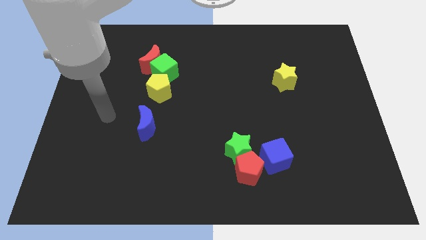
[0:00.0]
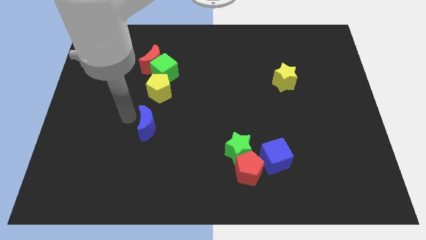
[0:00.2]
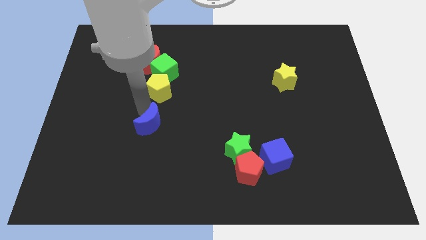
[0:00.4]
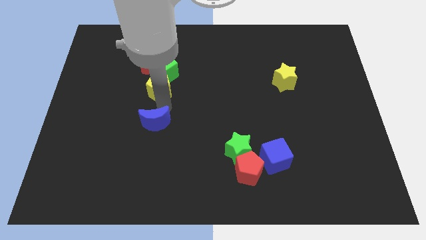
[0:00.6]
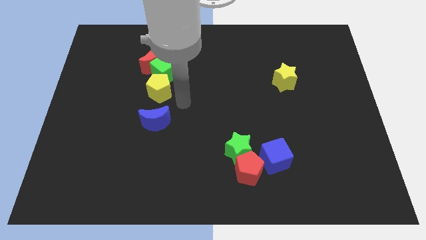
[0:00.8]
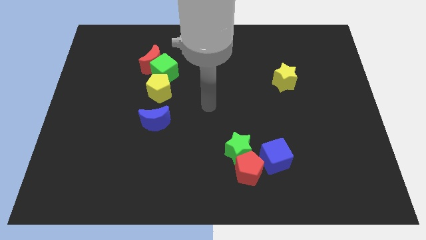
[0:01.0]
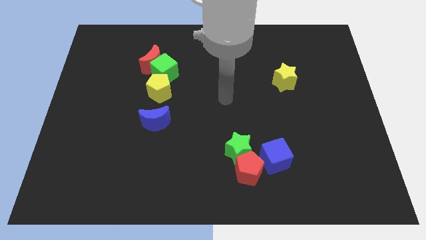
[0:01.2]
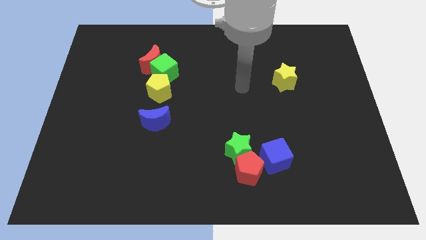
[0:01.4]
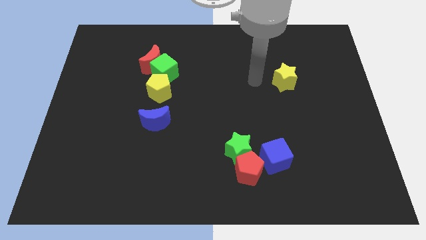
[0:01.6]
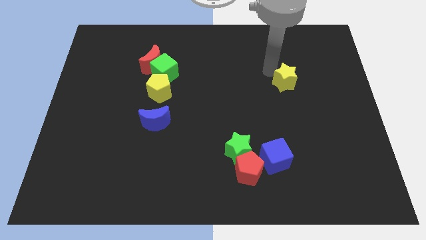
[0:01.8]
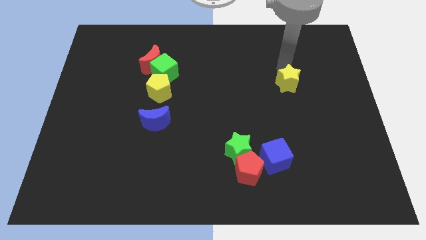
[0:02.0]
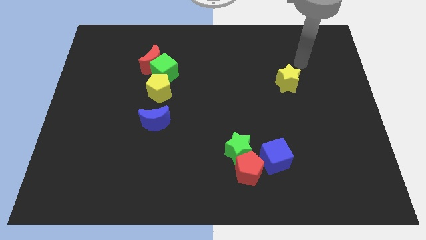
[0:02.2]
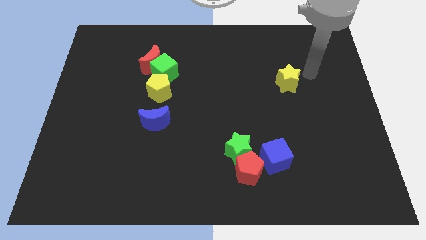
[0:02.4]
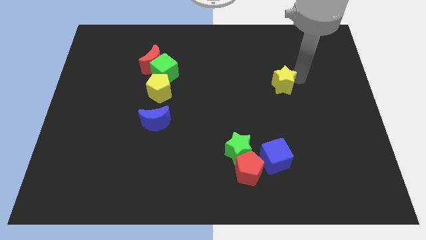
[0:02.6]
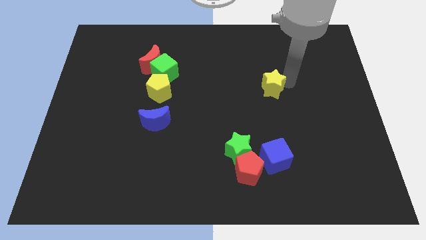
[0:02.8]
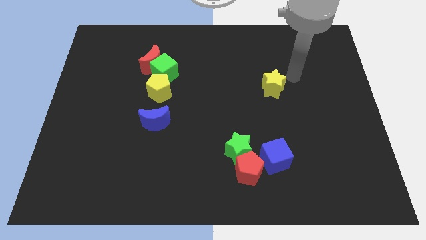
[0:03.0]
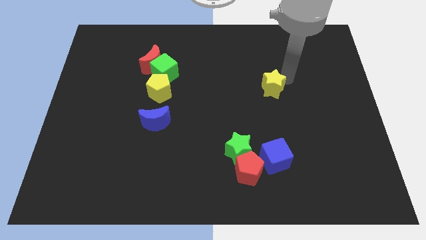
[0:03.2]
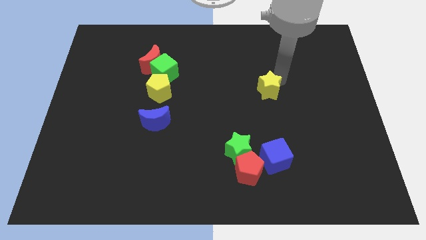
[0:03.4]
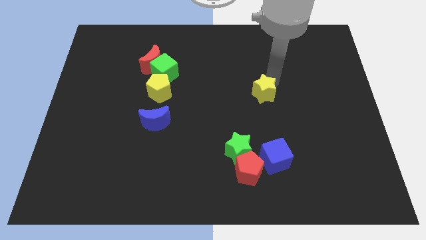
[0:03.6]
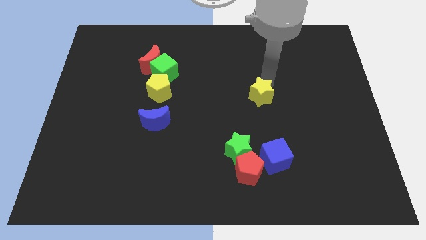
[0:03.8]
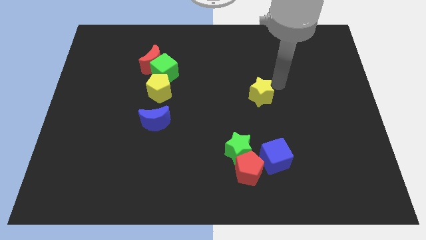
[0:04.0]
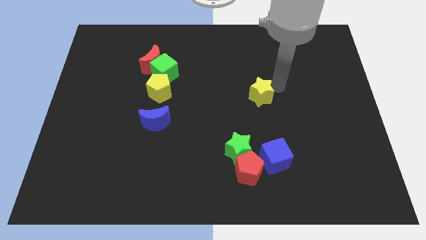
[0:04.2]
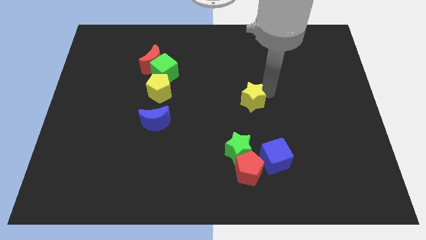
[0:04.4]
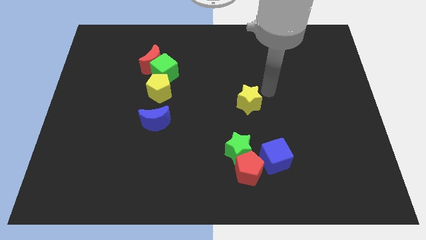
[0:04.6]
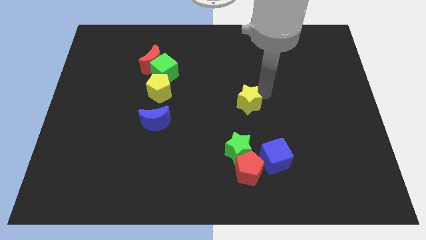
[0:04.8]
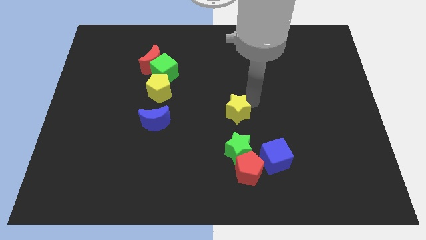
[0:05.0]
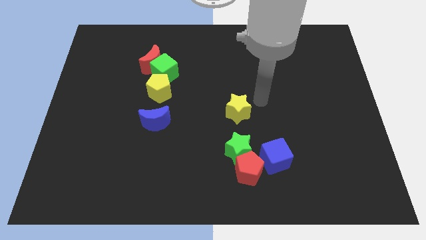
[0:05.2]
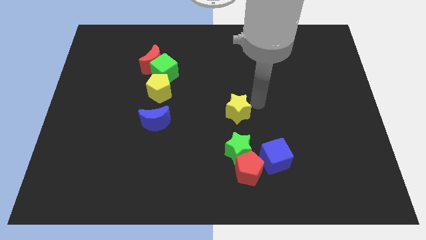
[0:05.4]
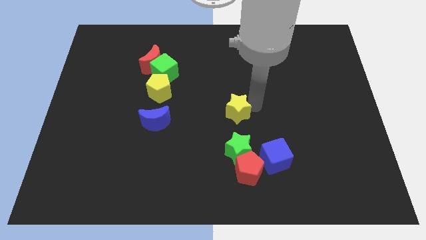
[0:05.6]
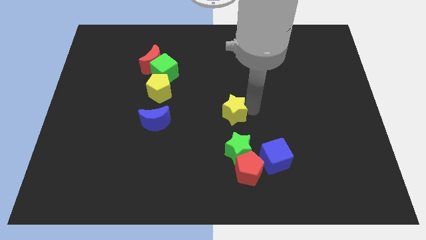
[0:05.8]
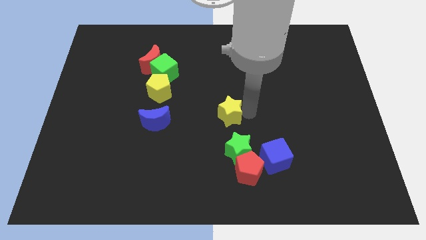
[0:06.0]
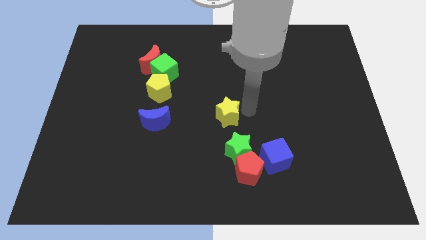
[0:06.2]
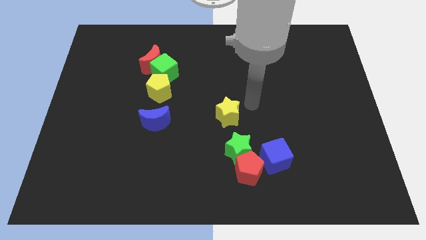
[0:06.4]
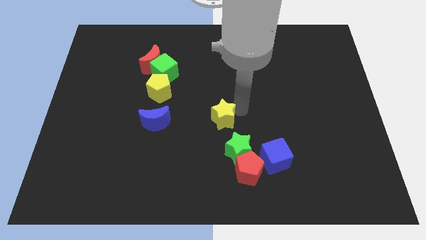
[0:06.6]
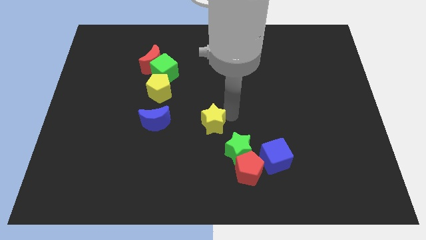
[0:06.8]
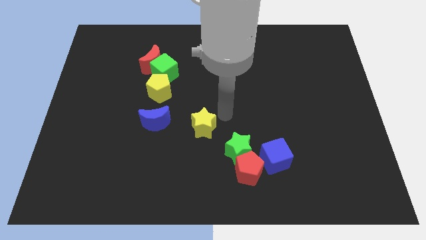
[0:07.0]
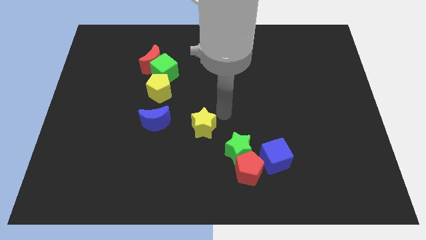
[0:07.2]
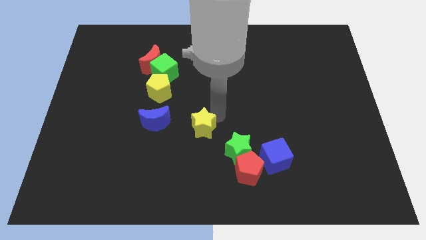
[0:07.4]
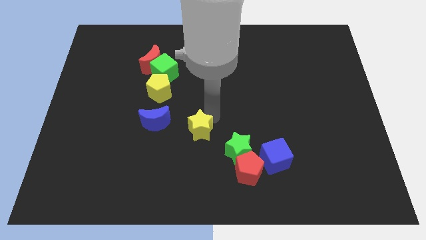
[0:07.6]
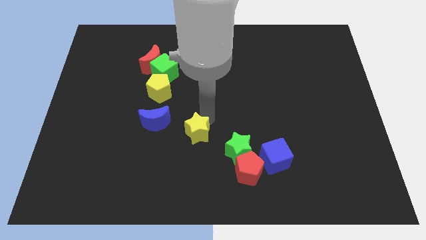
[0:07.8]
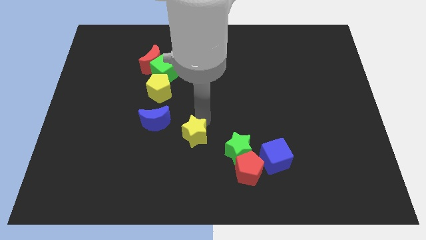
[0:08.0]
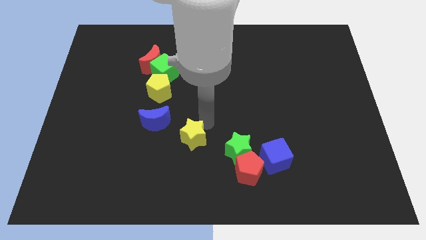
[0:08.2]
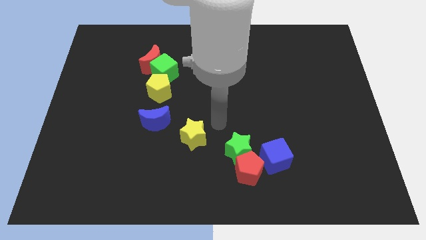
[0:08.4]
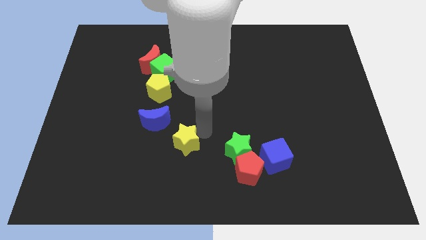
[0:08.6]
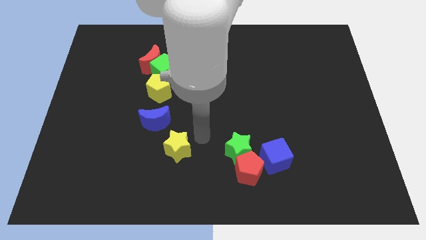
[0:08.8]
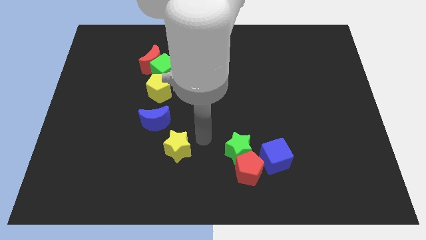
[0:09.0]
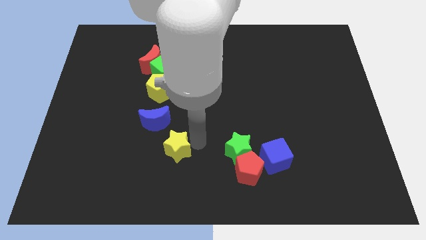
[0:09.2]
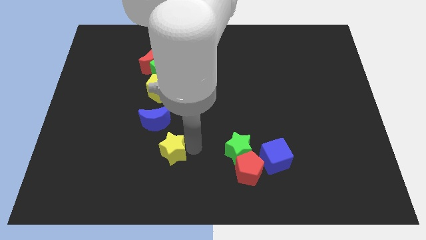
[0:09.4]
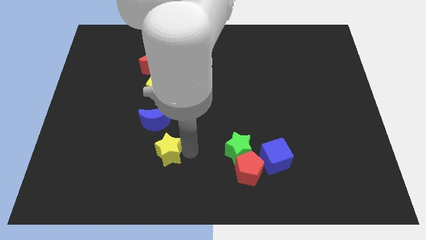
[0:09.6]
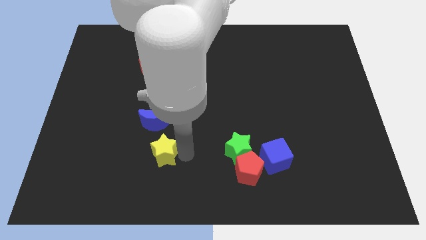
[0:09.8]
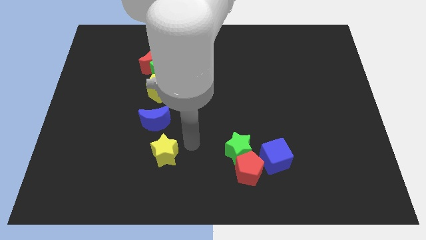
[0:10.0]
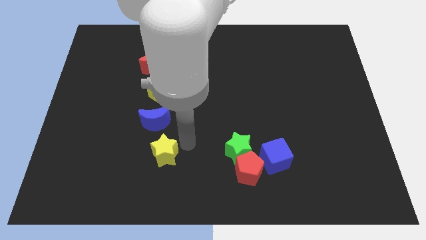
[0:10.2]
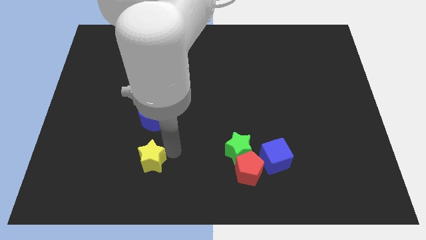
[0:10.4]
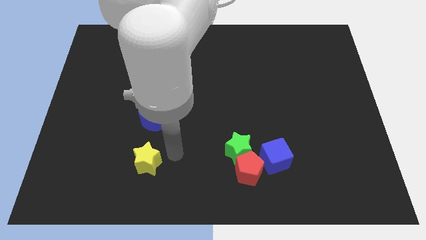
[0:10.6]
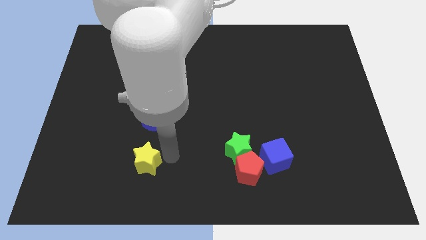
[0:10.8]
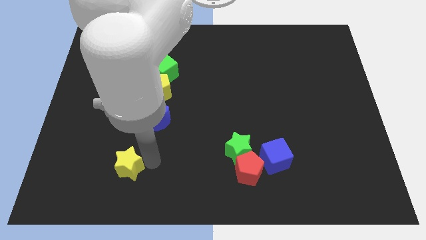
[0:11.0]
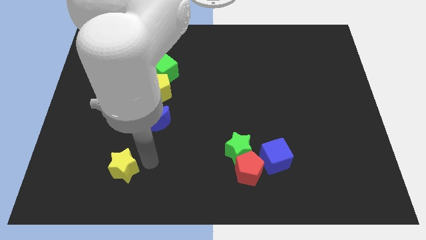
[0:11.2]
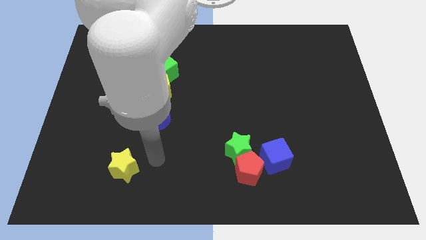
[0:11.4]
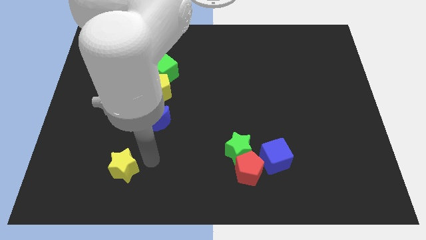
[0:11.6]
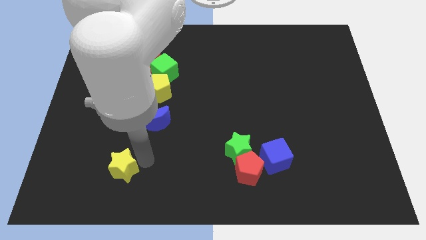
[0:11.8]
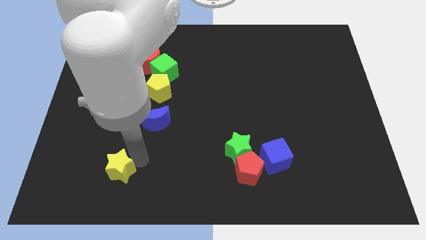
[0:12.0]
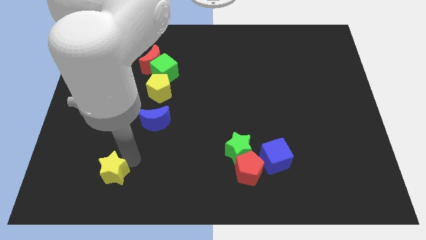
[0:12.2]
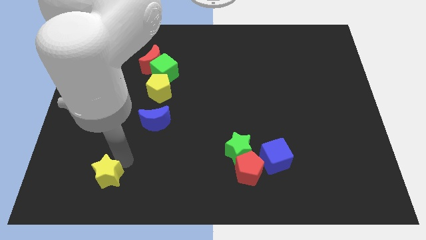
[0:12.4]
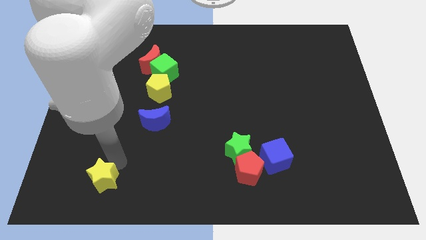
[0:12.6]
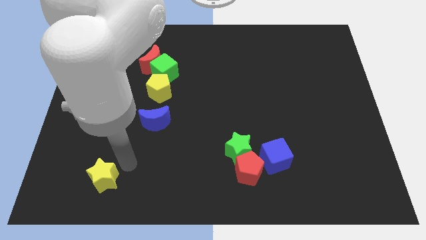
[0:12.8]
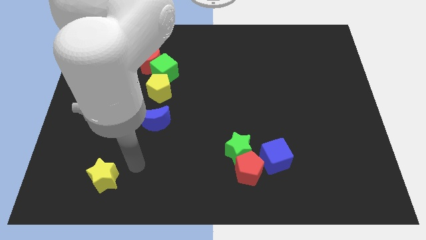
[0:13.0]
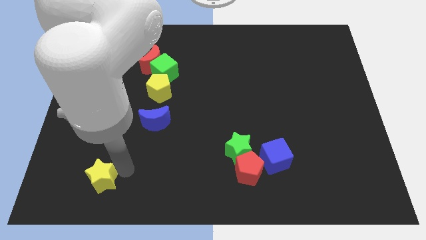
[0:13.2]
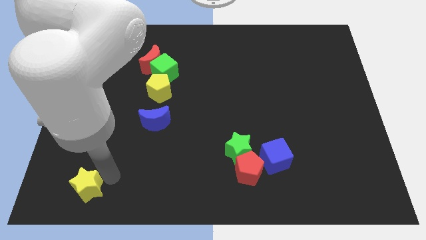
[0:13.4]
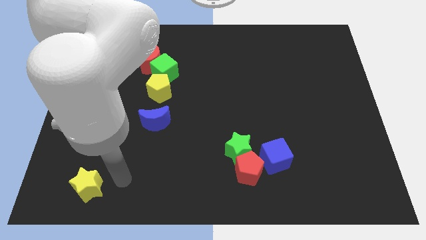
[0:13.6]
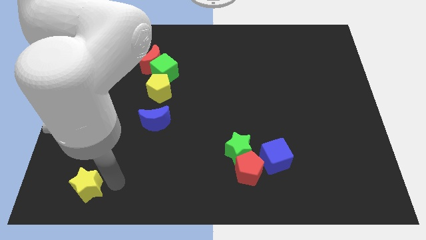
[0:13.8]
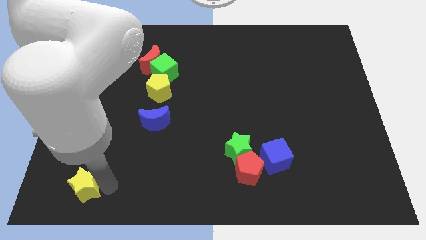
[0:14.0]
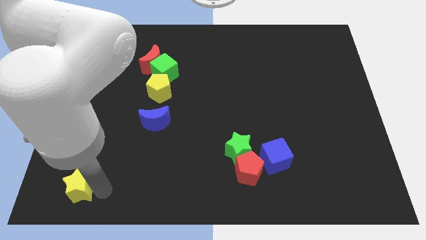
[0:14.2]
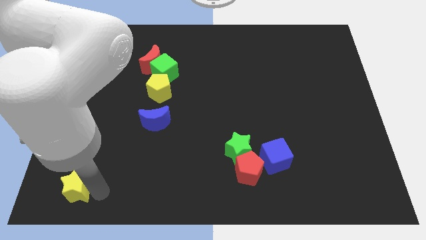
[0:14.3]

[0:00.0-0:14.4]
slide the yellow star to the bottom left of the board
